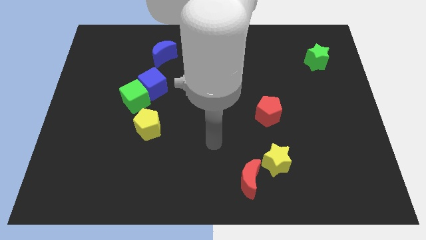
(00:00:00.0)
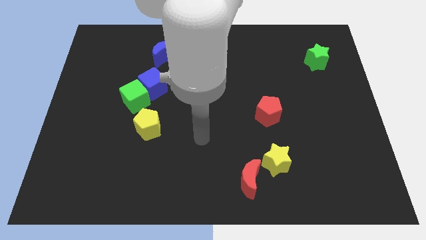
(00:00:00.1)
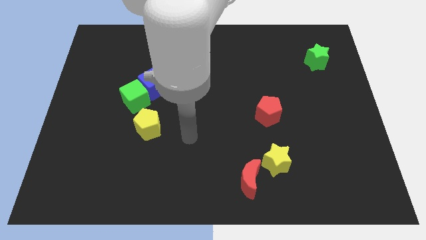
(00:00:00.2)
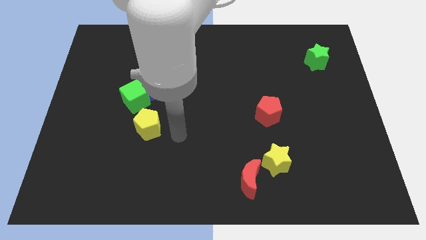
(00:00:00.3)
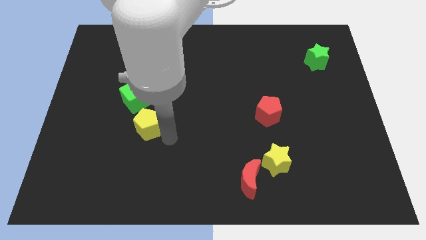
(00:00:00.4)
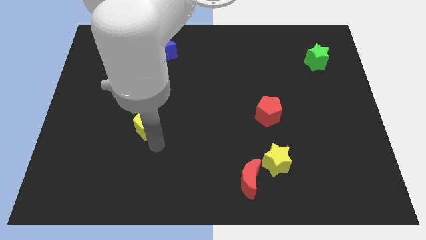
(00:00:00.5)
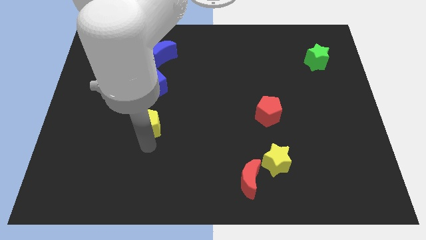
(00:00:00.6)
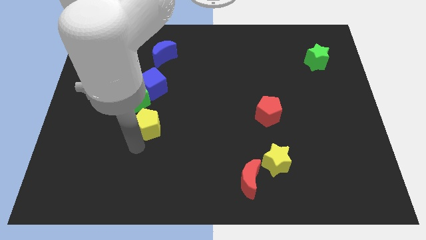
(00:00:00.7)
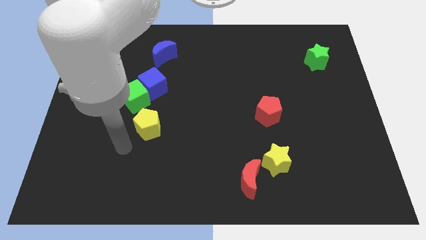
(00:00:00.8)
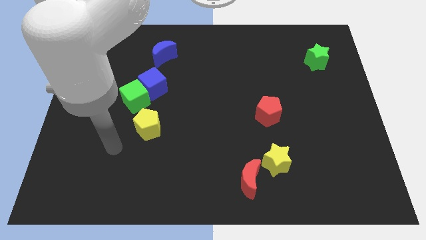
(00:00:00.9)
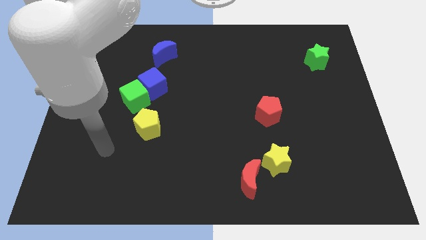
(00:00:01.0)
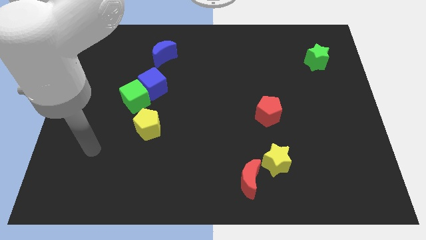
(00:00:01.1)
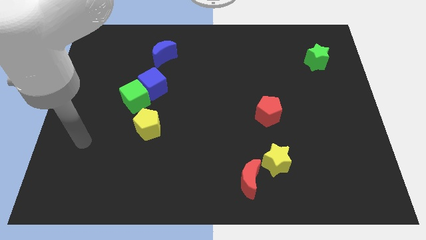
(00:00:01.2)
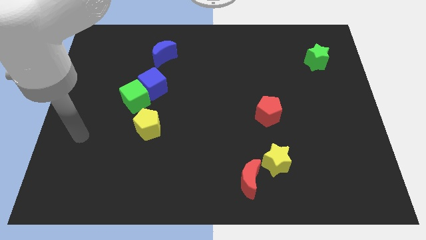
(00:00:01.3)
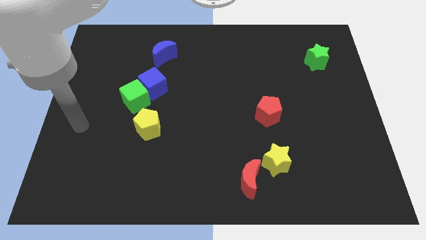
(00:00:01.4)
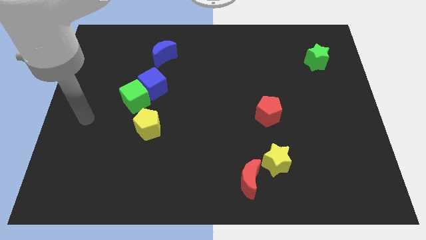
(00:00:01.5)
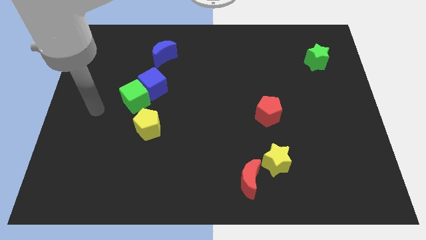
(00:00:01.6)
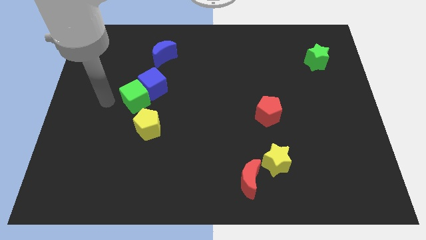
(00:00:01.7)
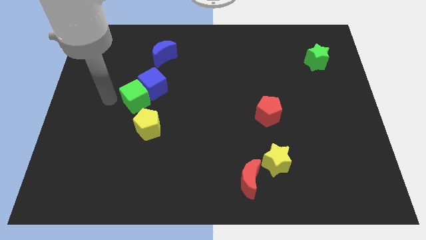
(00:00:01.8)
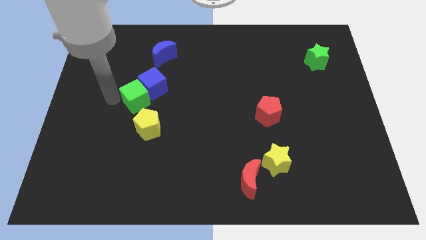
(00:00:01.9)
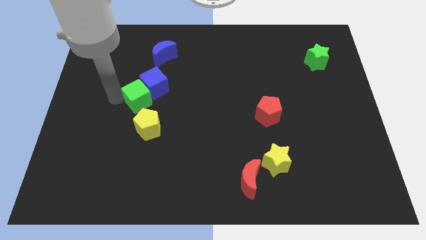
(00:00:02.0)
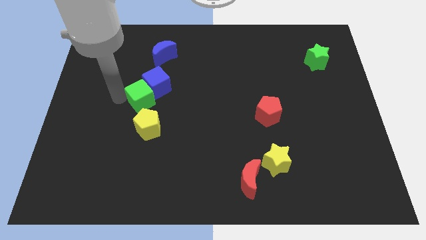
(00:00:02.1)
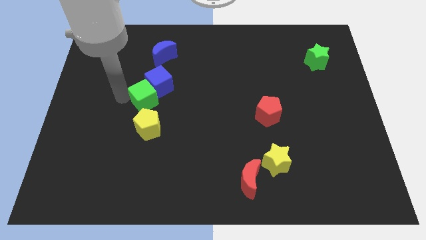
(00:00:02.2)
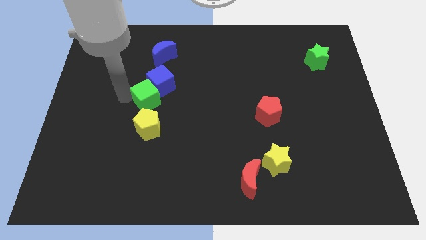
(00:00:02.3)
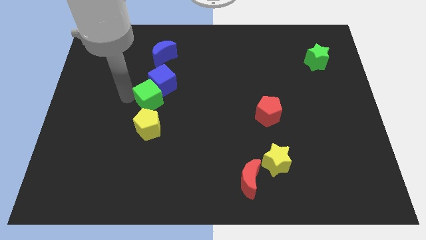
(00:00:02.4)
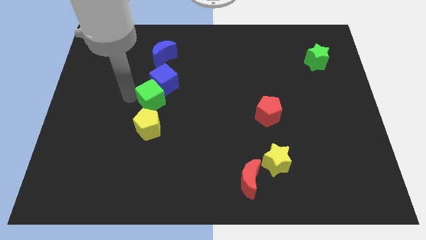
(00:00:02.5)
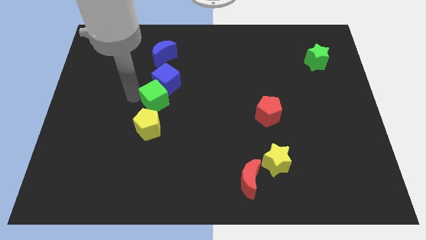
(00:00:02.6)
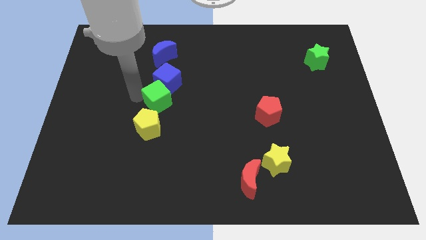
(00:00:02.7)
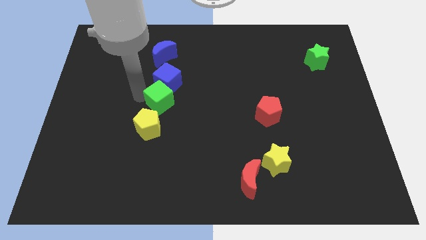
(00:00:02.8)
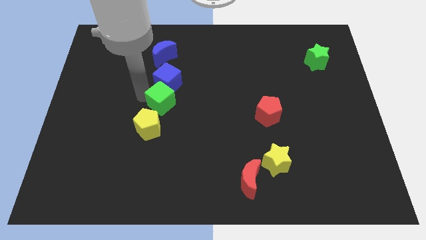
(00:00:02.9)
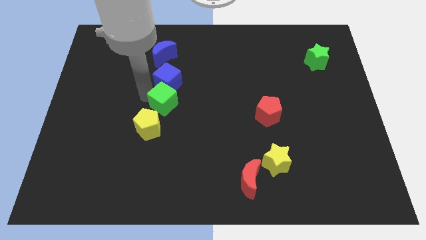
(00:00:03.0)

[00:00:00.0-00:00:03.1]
slide the green cube to the right a little

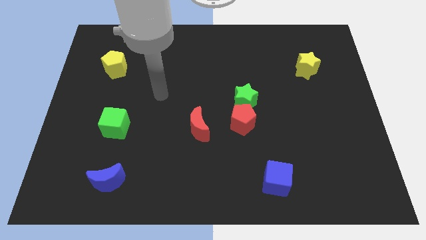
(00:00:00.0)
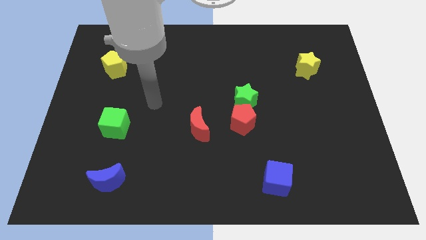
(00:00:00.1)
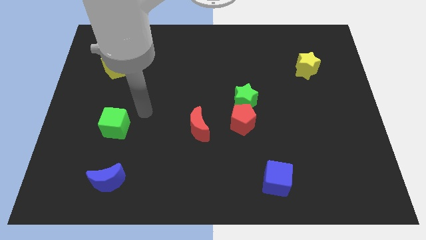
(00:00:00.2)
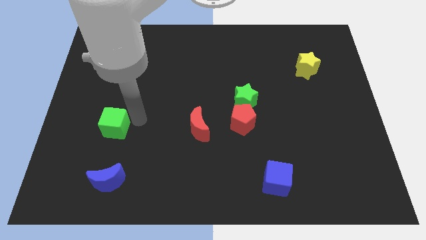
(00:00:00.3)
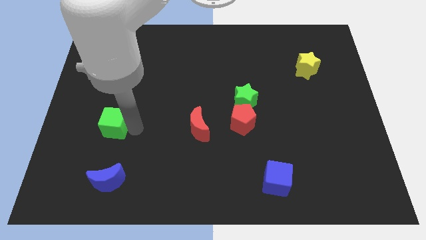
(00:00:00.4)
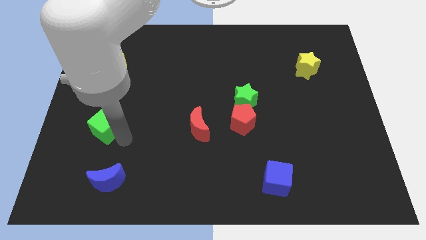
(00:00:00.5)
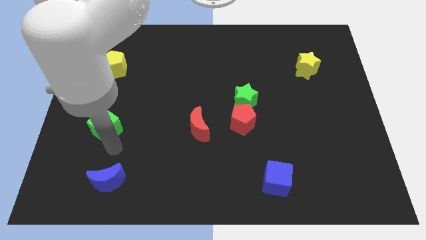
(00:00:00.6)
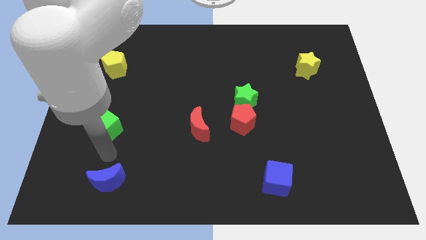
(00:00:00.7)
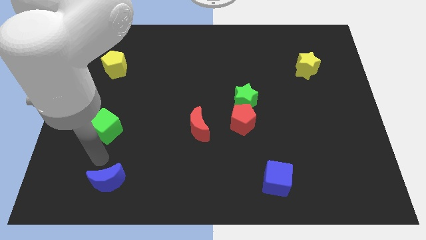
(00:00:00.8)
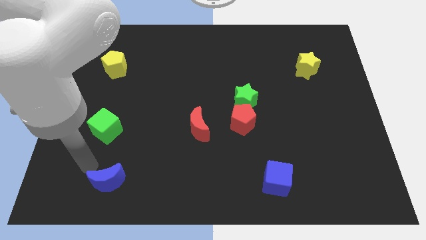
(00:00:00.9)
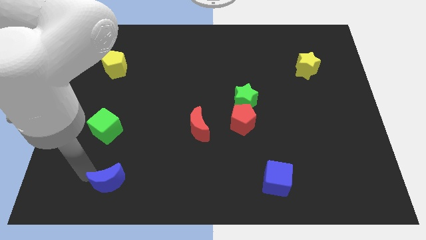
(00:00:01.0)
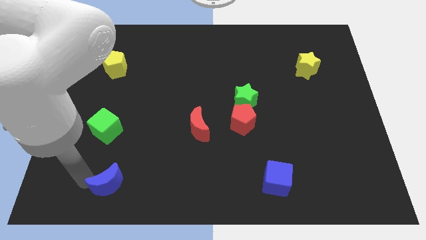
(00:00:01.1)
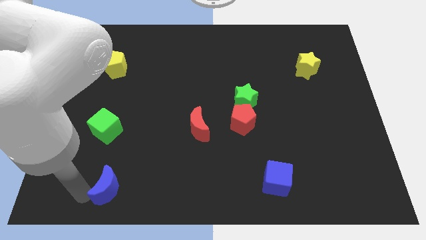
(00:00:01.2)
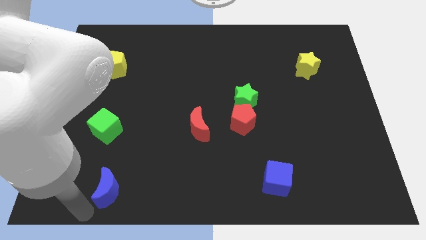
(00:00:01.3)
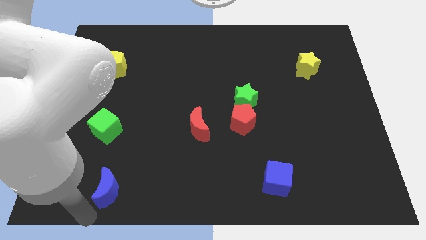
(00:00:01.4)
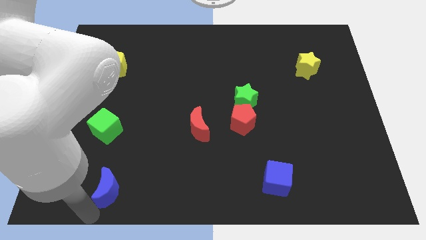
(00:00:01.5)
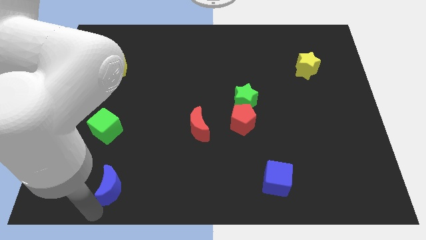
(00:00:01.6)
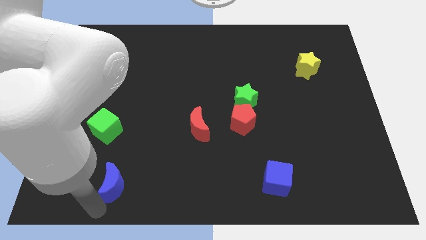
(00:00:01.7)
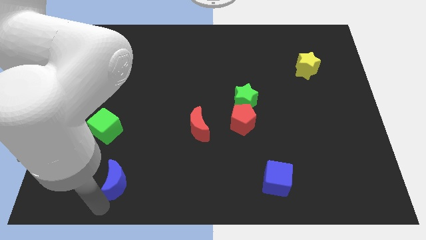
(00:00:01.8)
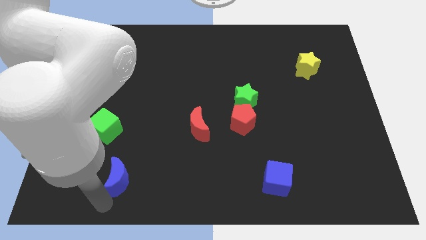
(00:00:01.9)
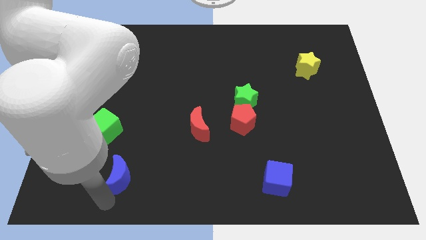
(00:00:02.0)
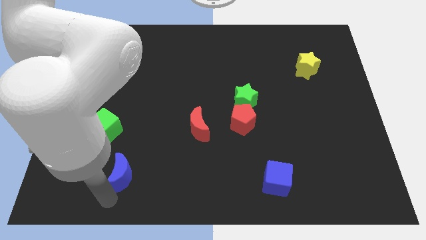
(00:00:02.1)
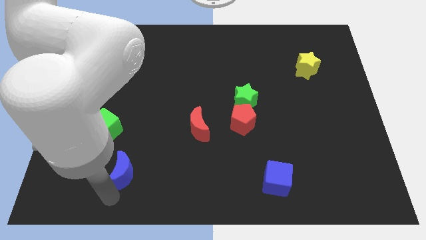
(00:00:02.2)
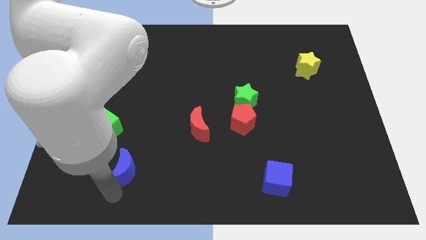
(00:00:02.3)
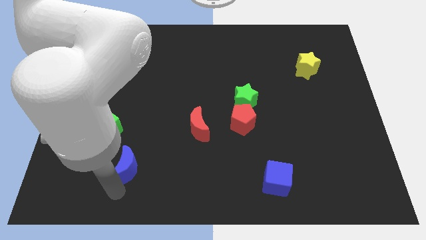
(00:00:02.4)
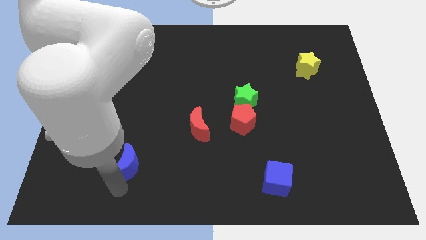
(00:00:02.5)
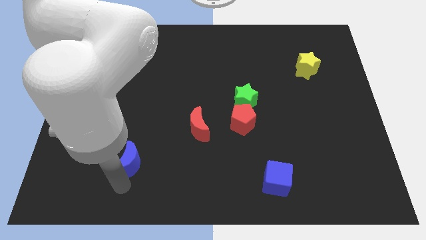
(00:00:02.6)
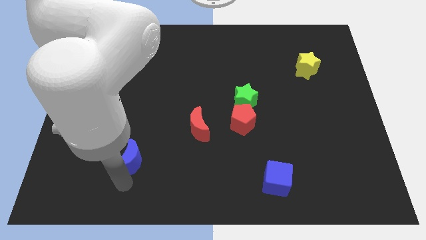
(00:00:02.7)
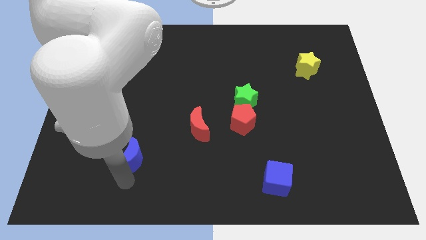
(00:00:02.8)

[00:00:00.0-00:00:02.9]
slightly push the blue moon up and then to the right

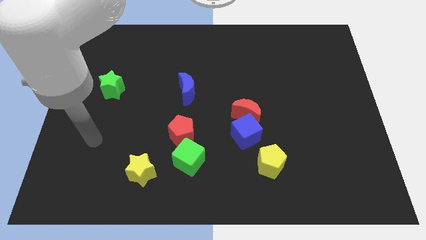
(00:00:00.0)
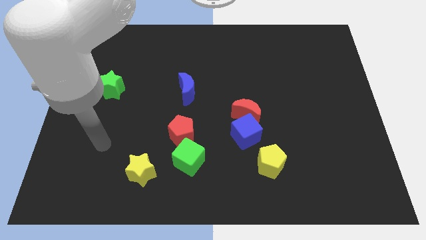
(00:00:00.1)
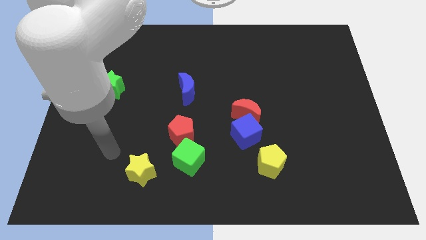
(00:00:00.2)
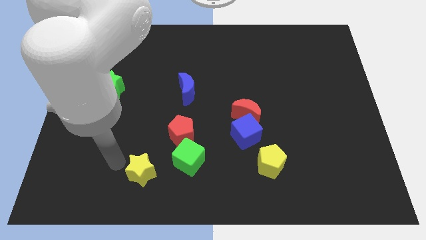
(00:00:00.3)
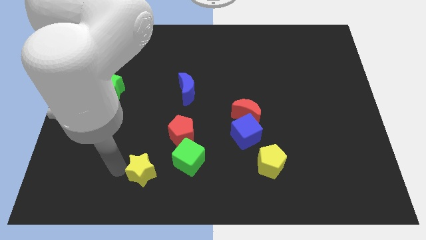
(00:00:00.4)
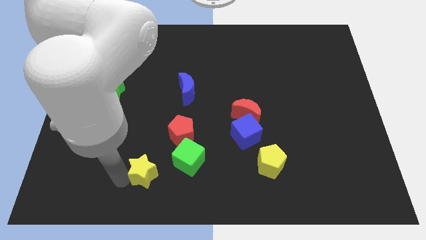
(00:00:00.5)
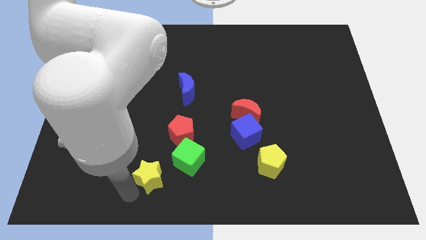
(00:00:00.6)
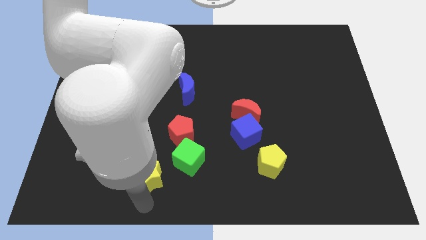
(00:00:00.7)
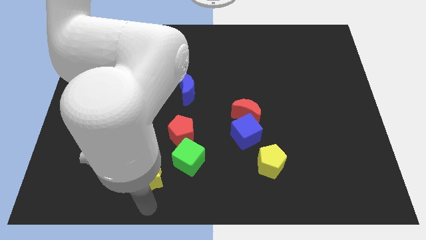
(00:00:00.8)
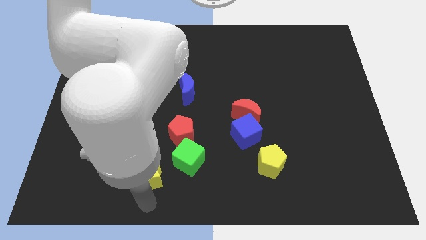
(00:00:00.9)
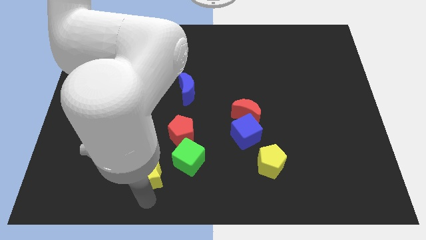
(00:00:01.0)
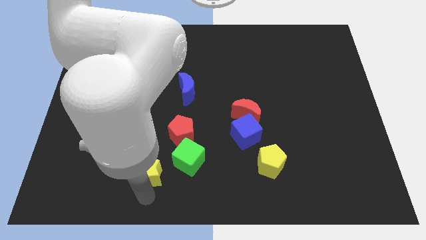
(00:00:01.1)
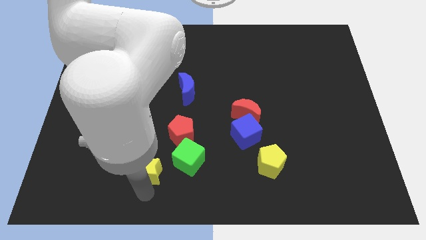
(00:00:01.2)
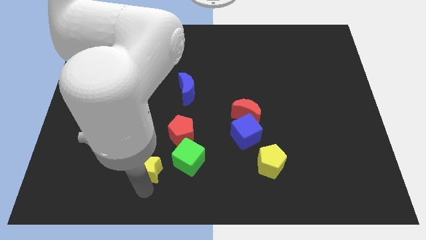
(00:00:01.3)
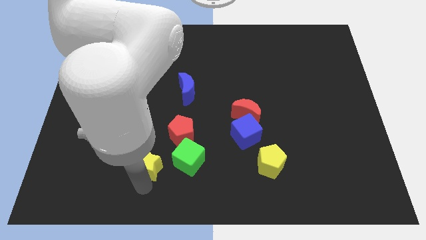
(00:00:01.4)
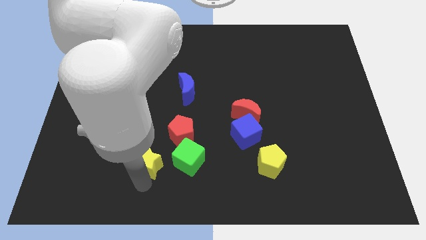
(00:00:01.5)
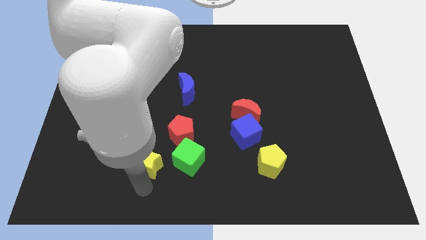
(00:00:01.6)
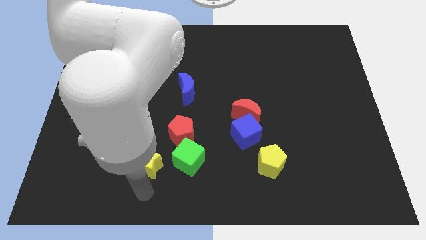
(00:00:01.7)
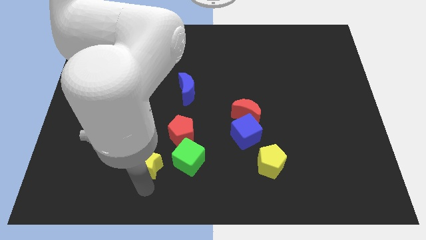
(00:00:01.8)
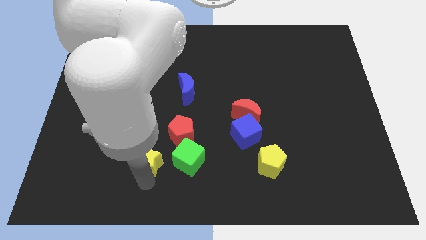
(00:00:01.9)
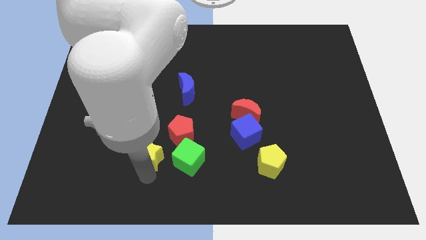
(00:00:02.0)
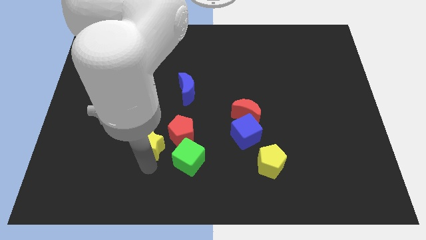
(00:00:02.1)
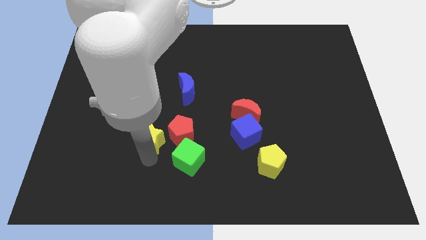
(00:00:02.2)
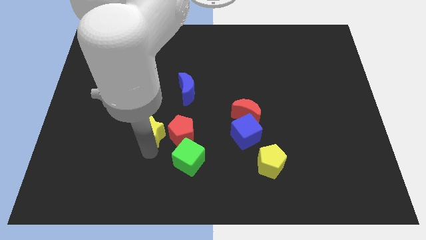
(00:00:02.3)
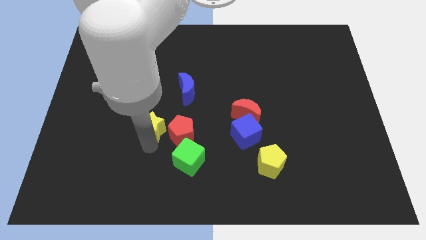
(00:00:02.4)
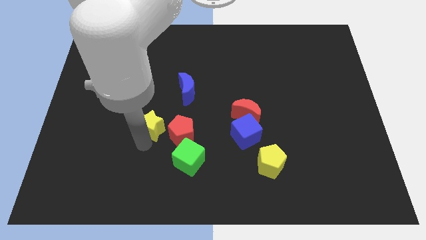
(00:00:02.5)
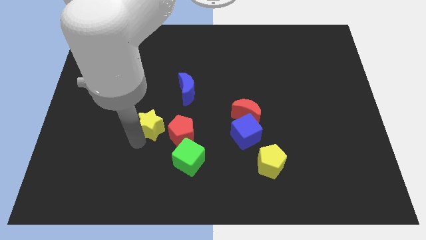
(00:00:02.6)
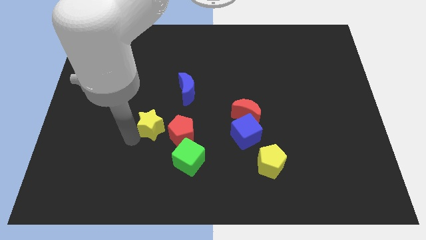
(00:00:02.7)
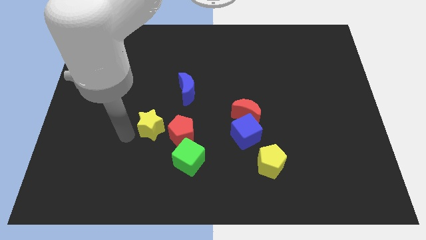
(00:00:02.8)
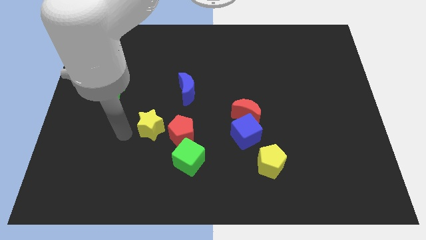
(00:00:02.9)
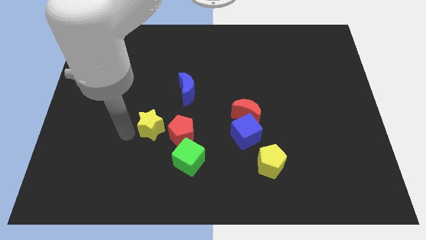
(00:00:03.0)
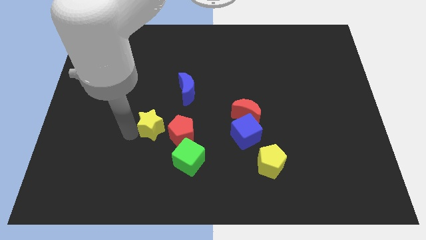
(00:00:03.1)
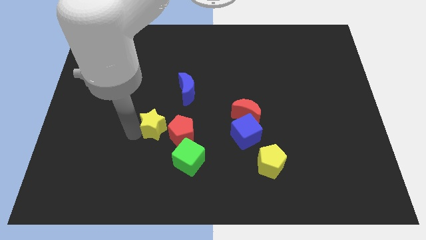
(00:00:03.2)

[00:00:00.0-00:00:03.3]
move the yellow star upwards and to the right a little
